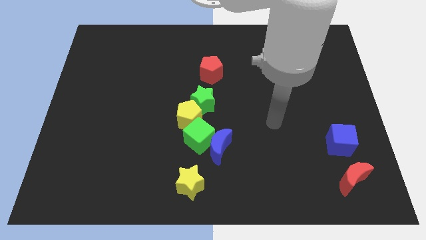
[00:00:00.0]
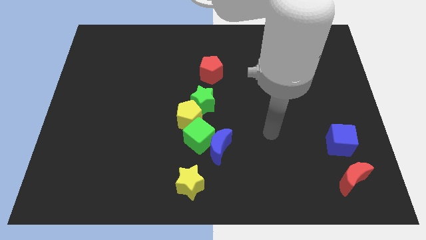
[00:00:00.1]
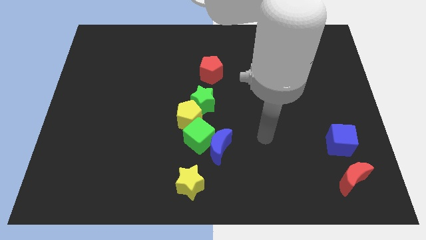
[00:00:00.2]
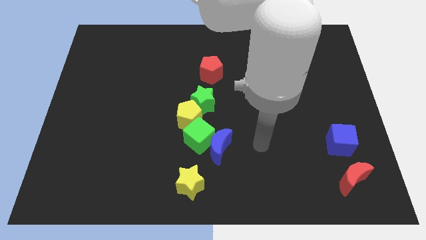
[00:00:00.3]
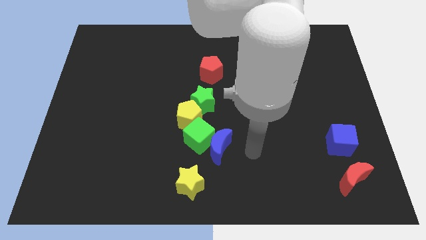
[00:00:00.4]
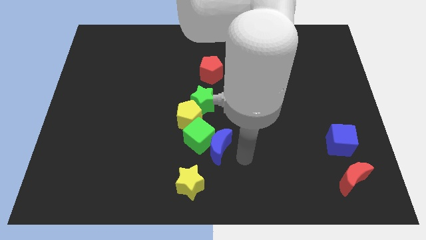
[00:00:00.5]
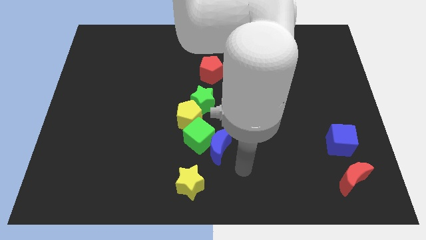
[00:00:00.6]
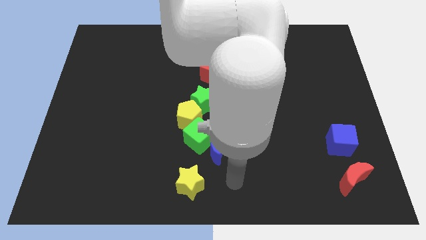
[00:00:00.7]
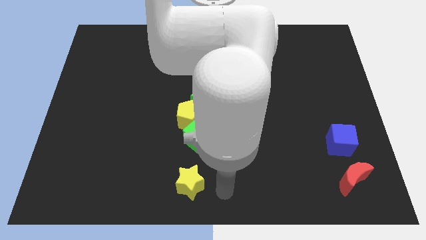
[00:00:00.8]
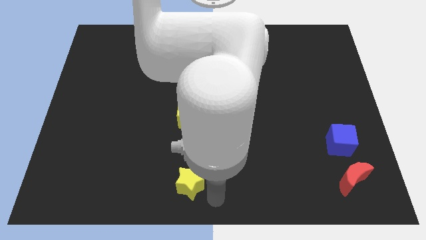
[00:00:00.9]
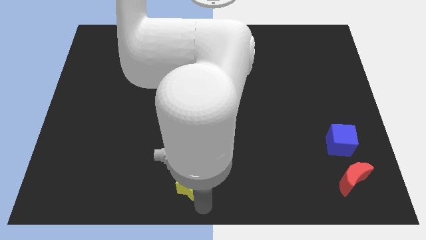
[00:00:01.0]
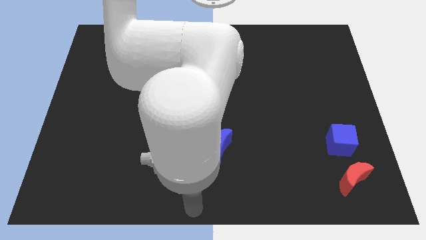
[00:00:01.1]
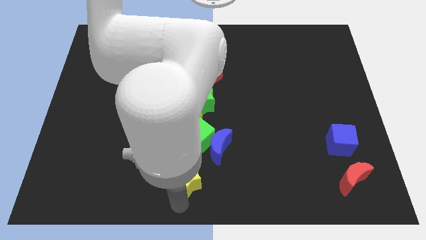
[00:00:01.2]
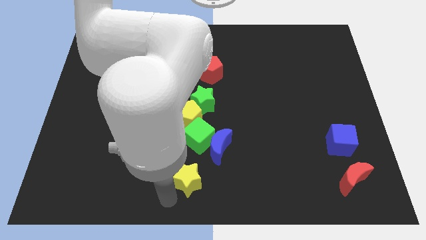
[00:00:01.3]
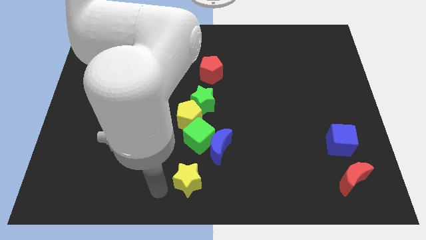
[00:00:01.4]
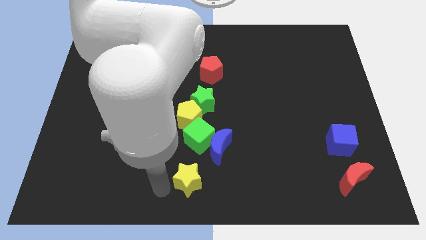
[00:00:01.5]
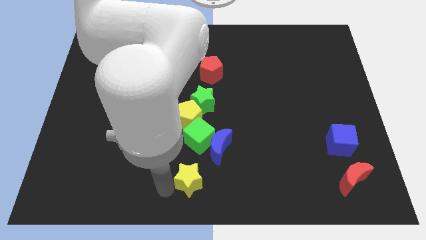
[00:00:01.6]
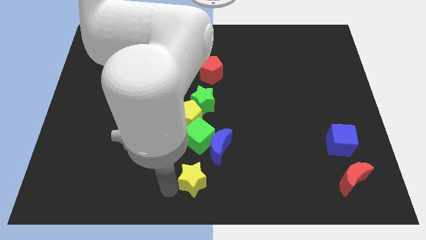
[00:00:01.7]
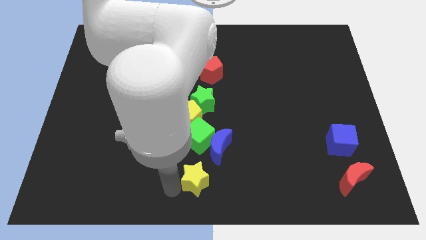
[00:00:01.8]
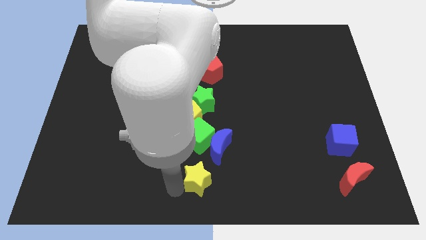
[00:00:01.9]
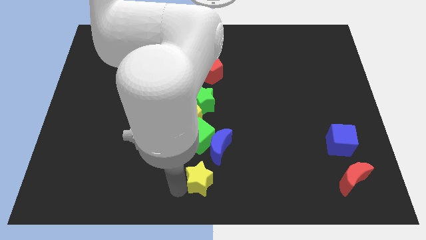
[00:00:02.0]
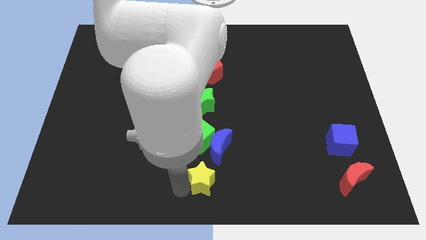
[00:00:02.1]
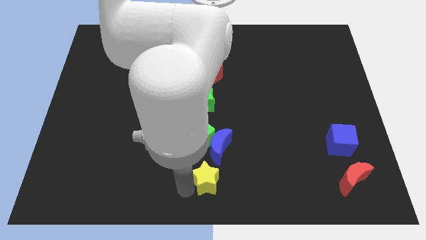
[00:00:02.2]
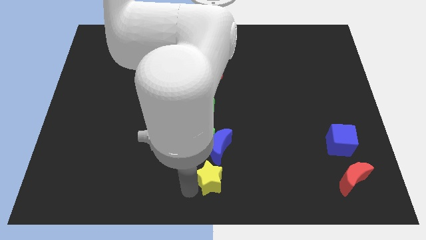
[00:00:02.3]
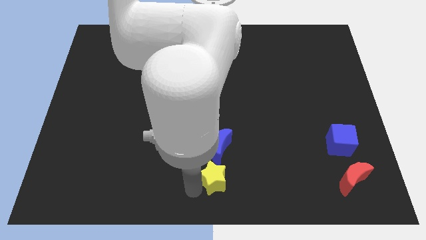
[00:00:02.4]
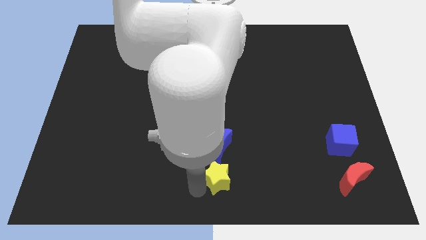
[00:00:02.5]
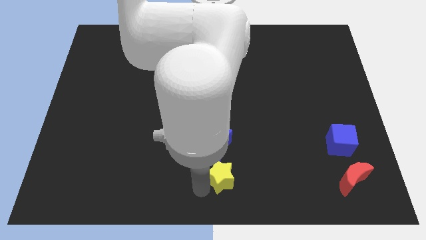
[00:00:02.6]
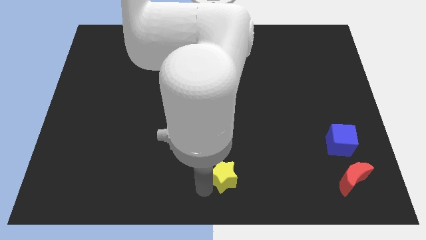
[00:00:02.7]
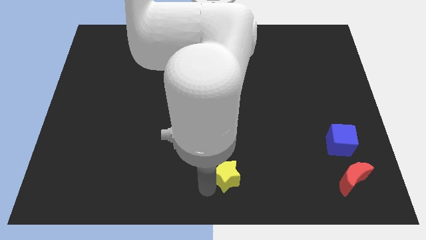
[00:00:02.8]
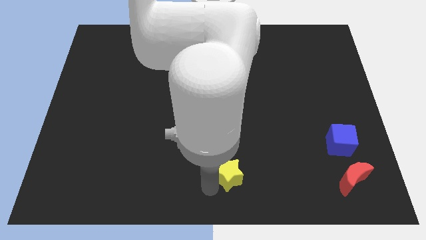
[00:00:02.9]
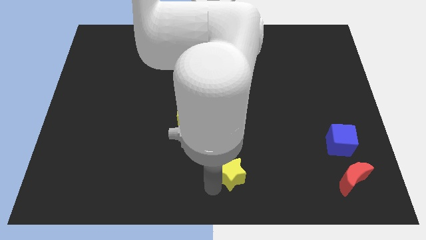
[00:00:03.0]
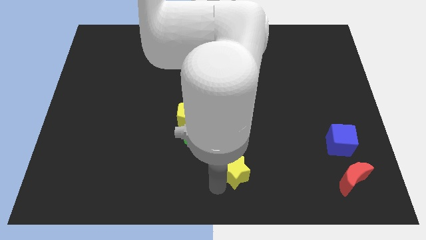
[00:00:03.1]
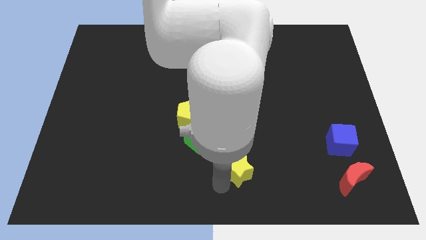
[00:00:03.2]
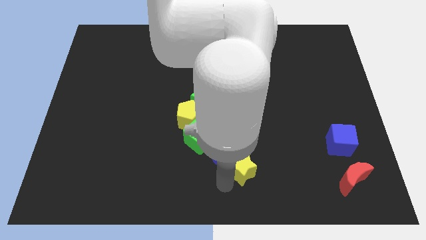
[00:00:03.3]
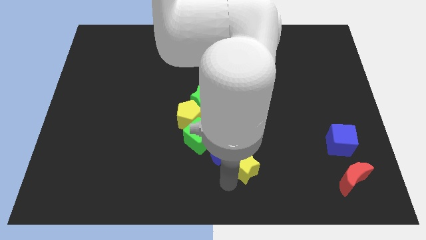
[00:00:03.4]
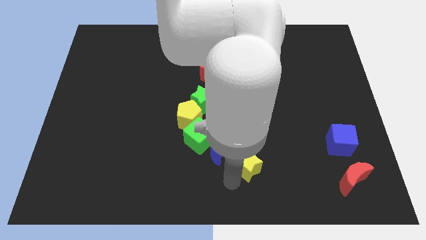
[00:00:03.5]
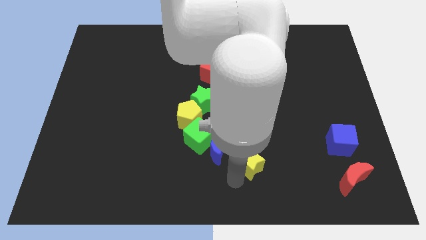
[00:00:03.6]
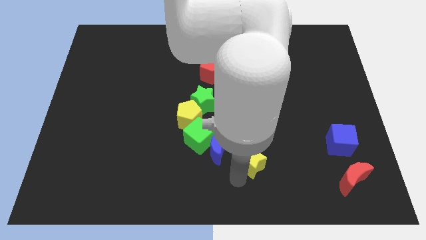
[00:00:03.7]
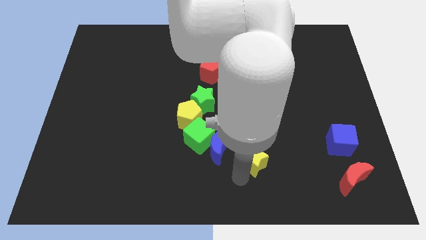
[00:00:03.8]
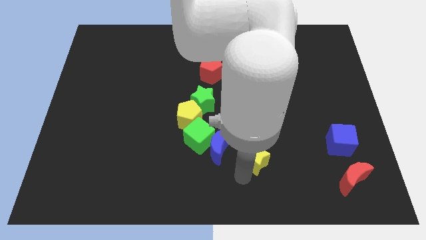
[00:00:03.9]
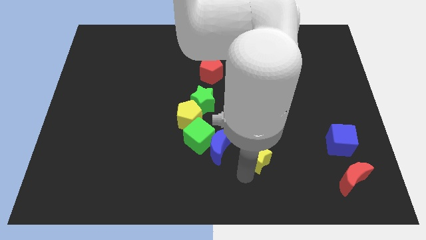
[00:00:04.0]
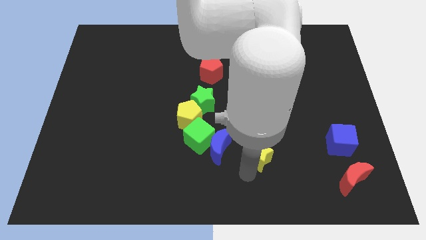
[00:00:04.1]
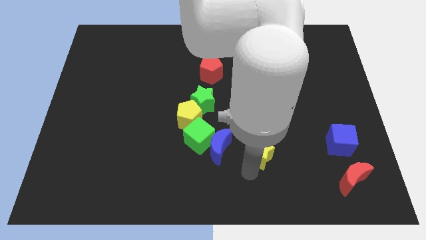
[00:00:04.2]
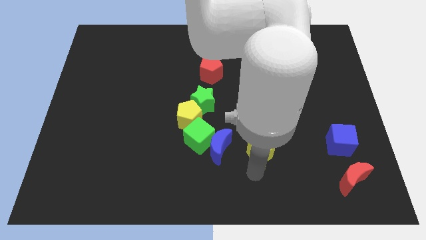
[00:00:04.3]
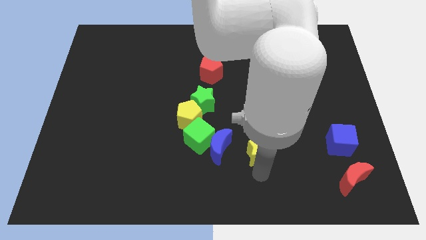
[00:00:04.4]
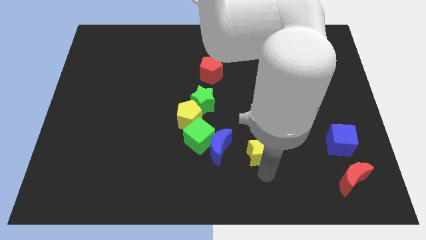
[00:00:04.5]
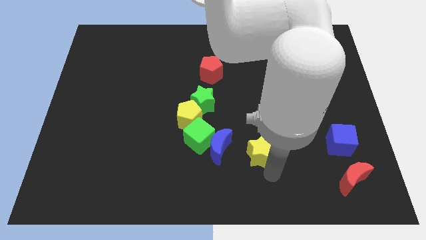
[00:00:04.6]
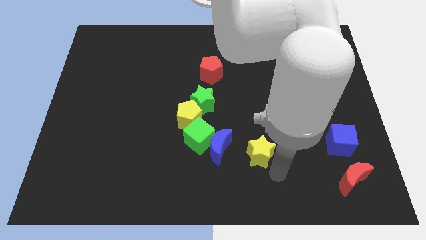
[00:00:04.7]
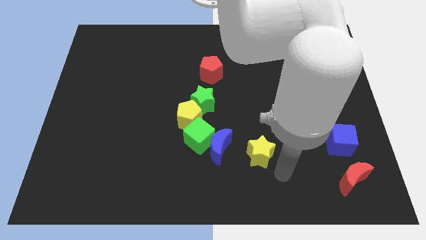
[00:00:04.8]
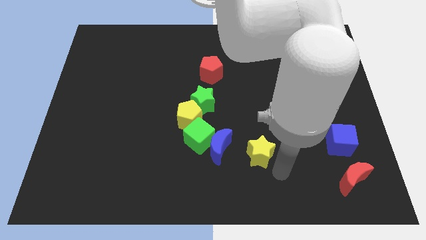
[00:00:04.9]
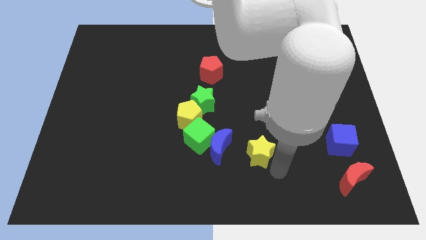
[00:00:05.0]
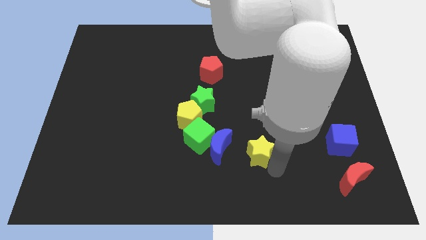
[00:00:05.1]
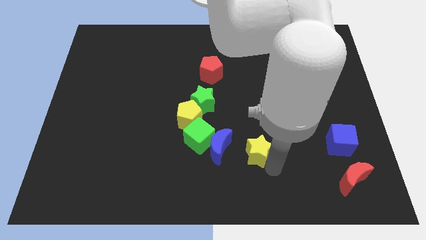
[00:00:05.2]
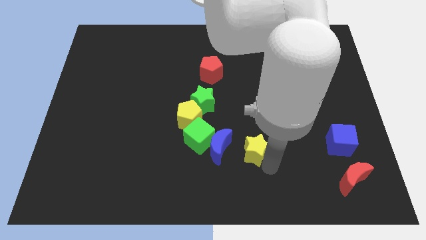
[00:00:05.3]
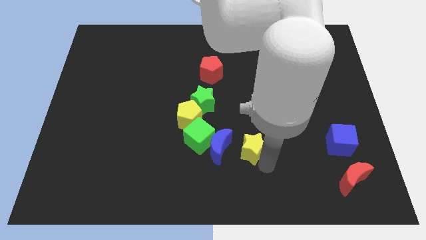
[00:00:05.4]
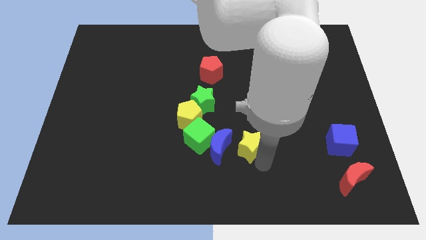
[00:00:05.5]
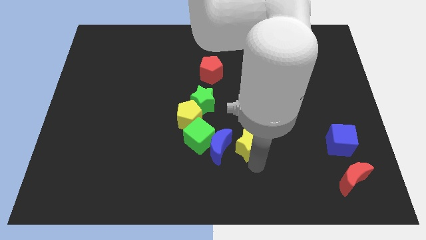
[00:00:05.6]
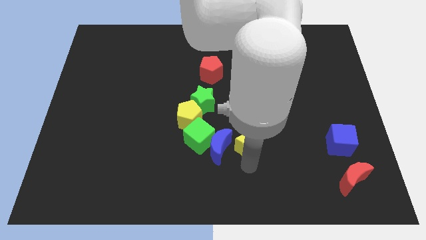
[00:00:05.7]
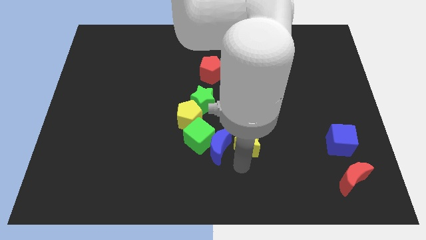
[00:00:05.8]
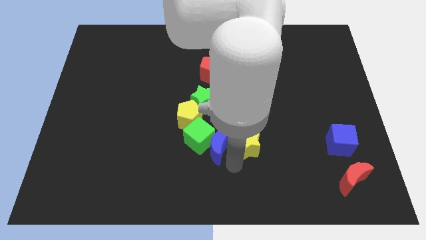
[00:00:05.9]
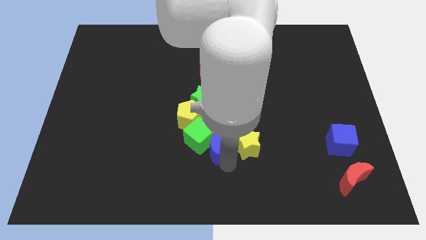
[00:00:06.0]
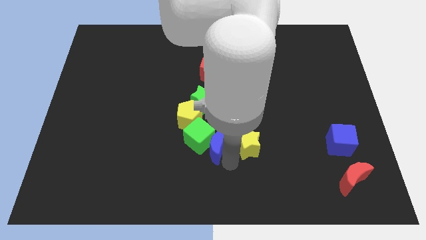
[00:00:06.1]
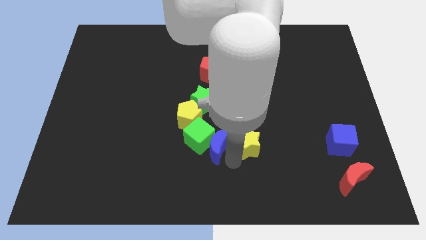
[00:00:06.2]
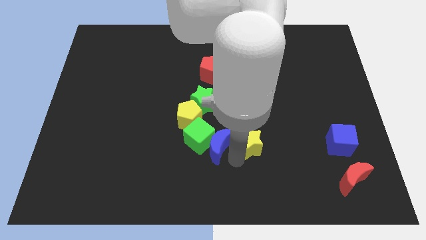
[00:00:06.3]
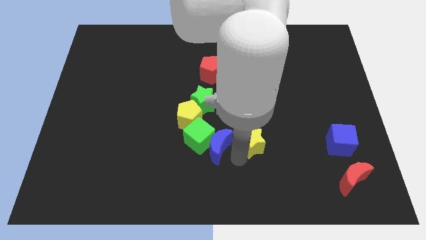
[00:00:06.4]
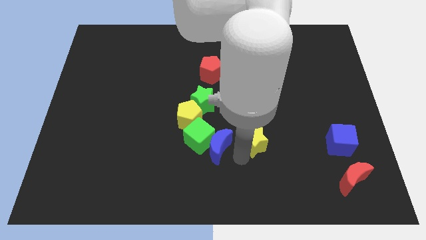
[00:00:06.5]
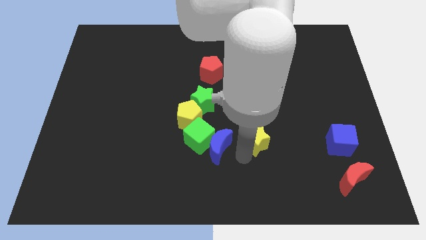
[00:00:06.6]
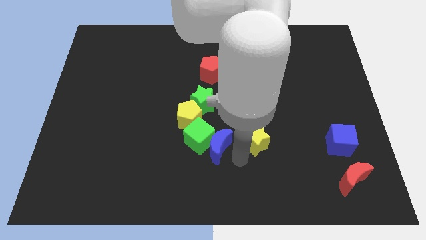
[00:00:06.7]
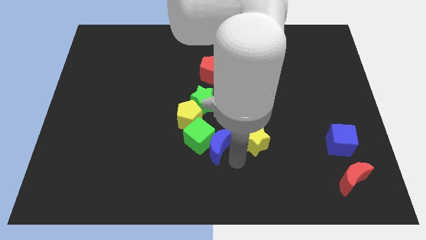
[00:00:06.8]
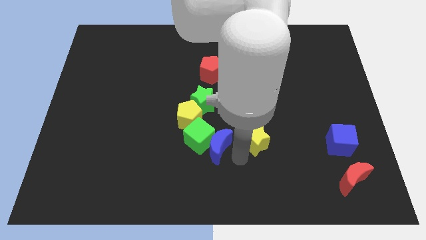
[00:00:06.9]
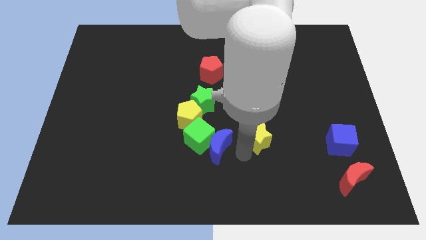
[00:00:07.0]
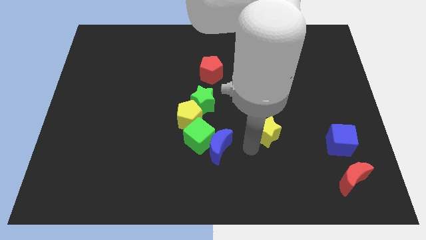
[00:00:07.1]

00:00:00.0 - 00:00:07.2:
move the yellow star up and right diagonally

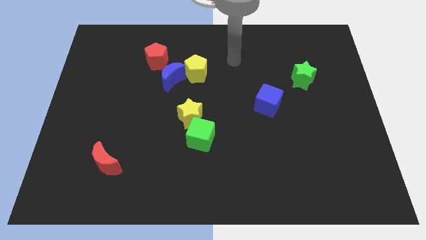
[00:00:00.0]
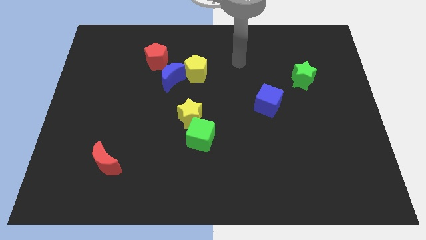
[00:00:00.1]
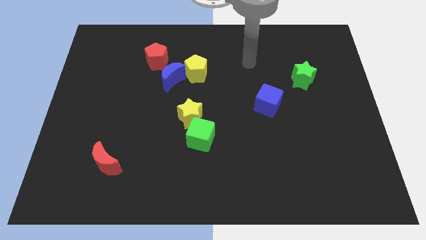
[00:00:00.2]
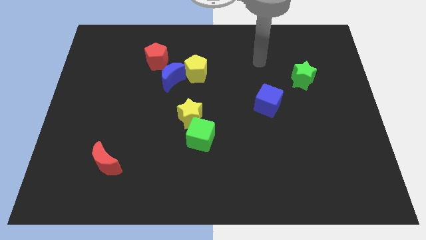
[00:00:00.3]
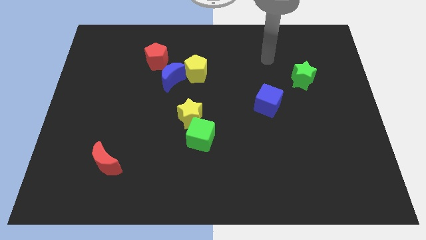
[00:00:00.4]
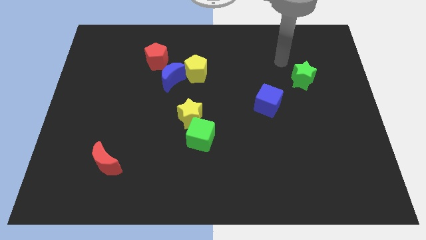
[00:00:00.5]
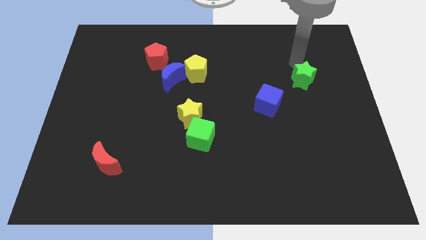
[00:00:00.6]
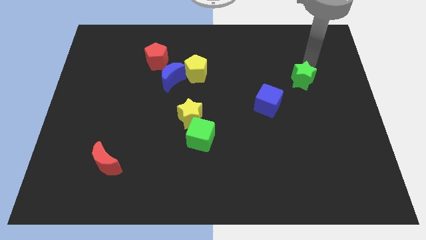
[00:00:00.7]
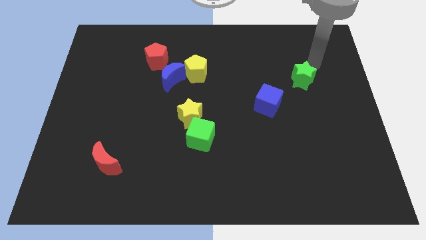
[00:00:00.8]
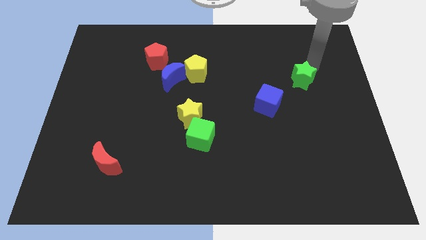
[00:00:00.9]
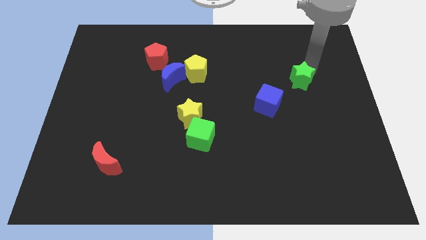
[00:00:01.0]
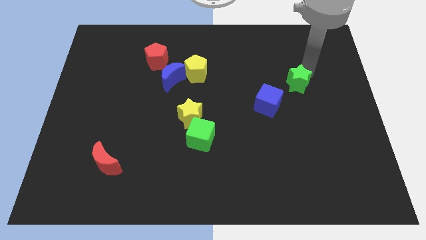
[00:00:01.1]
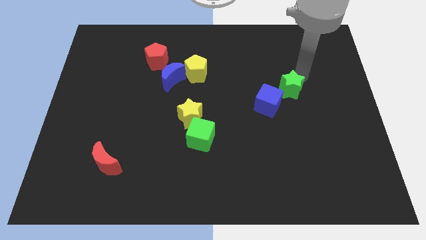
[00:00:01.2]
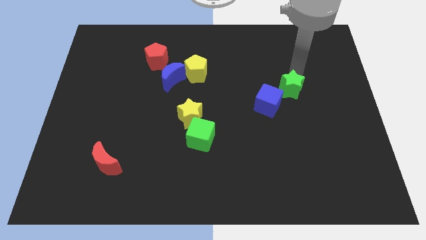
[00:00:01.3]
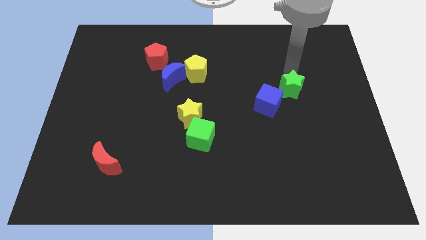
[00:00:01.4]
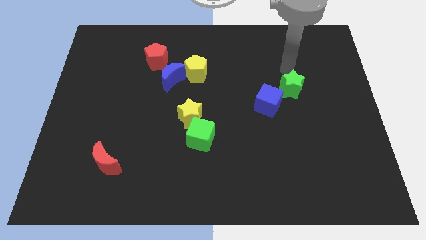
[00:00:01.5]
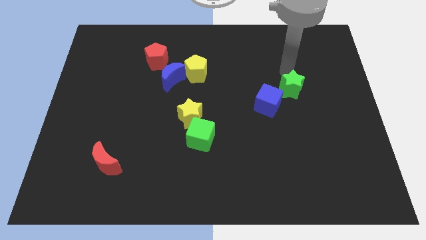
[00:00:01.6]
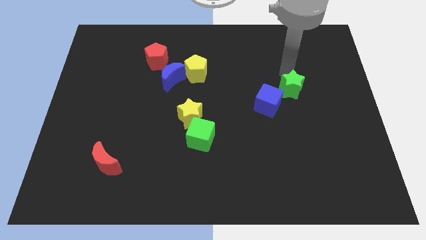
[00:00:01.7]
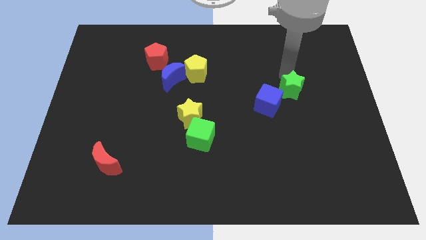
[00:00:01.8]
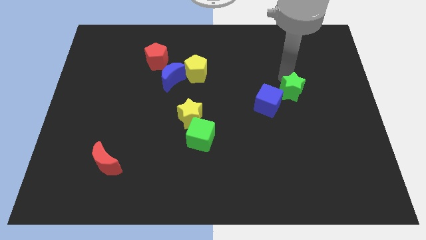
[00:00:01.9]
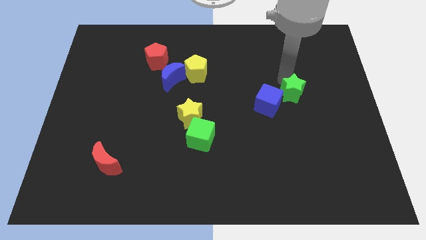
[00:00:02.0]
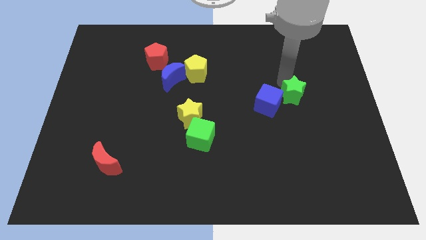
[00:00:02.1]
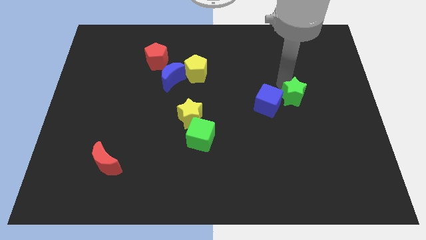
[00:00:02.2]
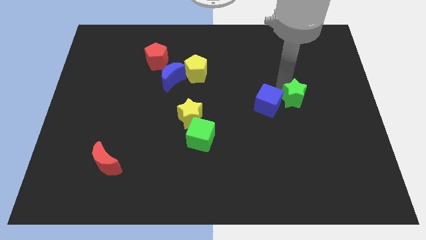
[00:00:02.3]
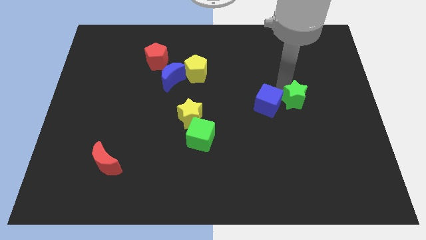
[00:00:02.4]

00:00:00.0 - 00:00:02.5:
slide the green star down and then to the left slightly
